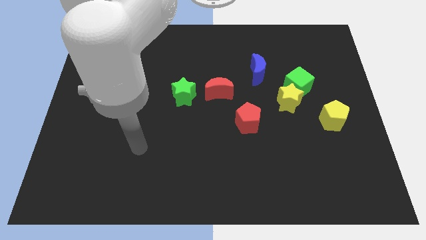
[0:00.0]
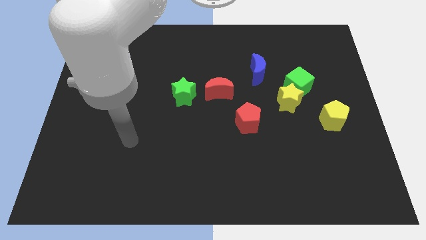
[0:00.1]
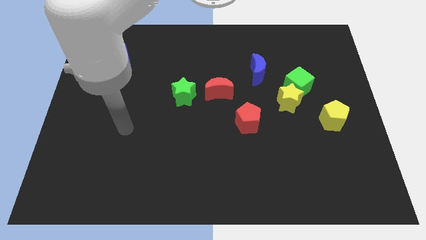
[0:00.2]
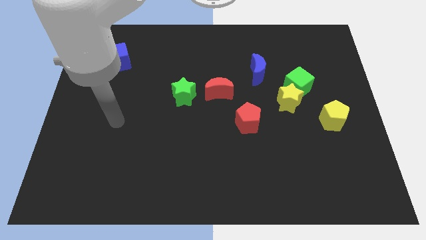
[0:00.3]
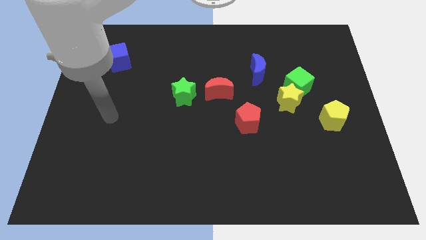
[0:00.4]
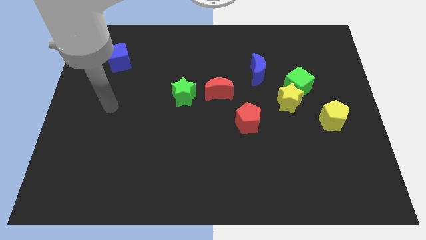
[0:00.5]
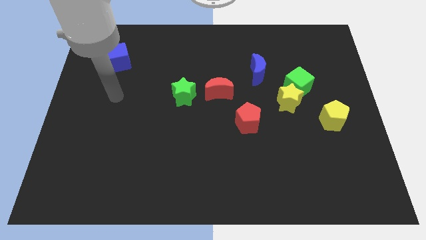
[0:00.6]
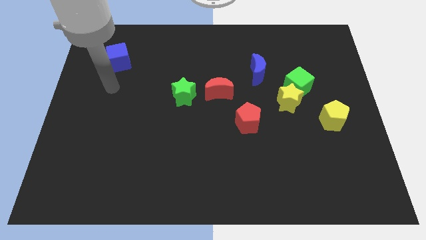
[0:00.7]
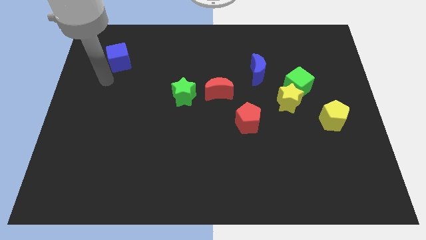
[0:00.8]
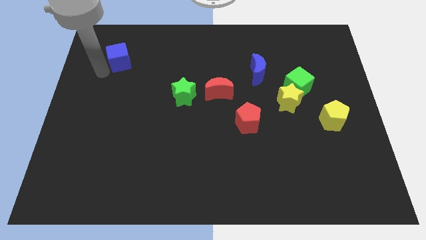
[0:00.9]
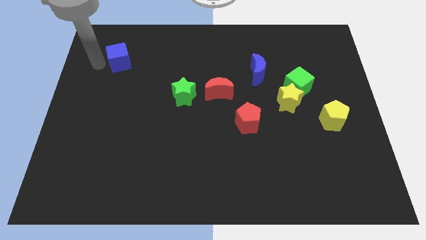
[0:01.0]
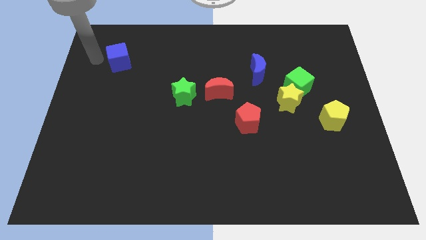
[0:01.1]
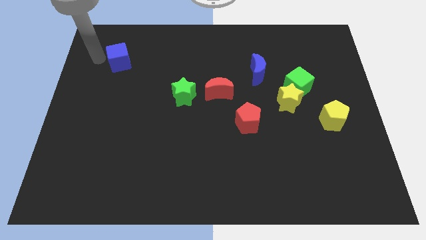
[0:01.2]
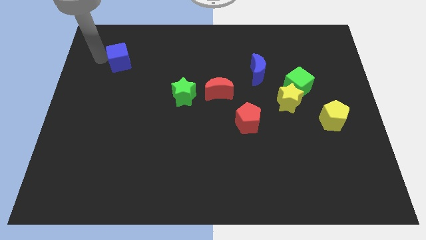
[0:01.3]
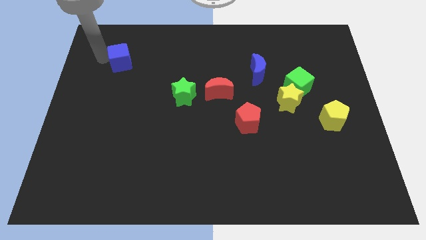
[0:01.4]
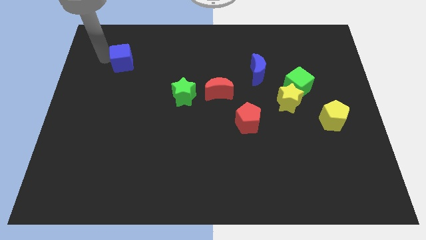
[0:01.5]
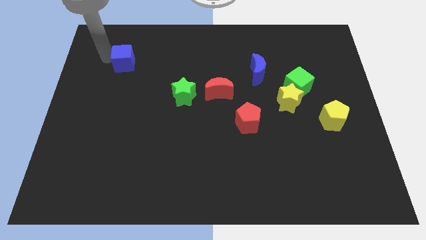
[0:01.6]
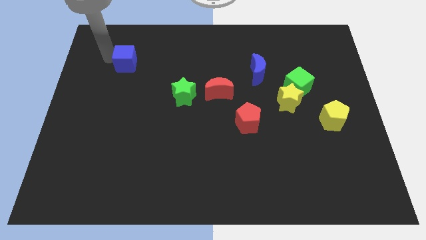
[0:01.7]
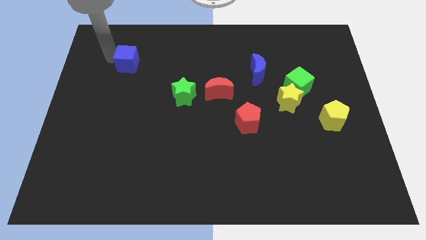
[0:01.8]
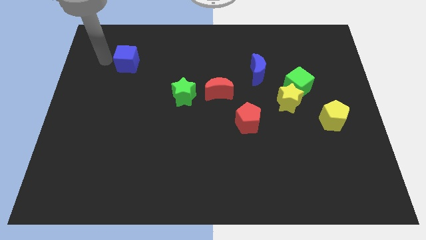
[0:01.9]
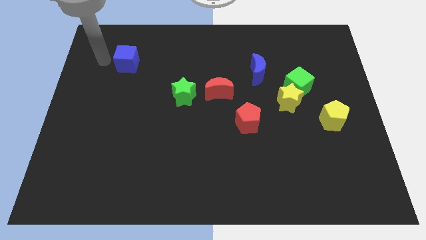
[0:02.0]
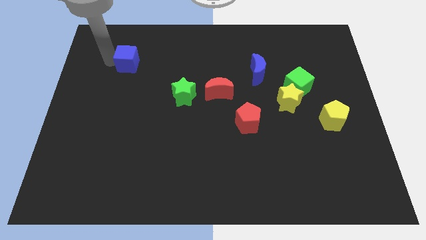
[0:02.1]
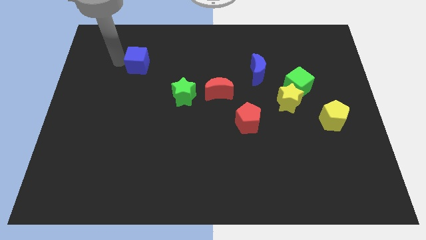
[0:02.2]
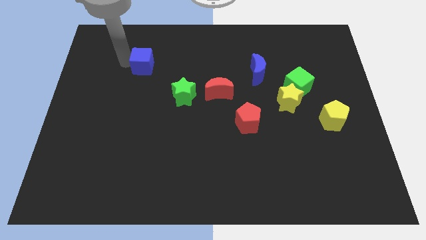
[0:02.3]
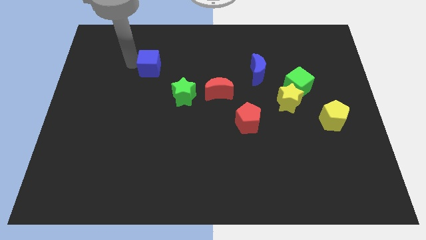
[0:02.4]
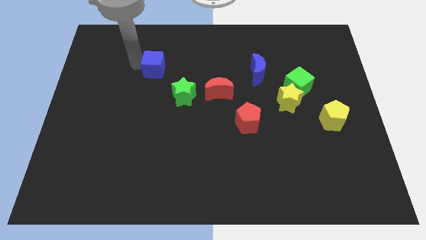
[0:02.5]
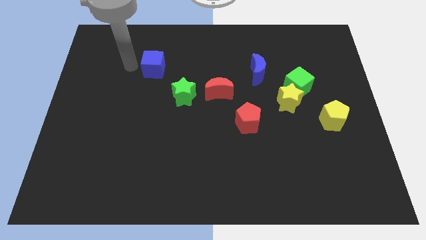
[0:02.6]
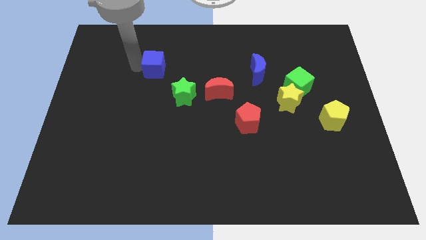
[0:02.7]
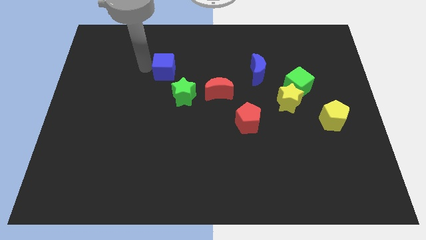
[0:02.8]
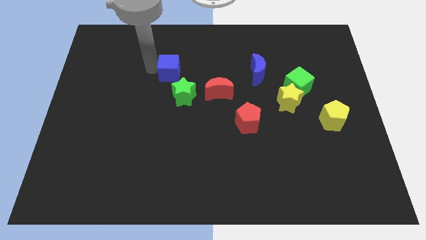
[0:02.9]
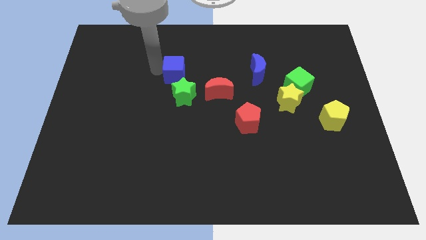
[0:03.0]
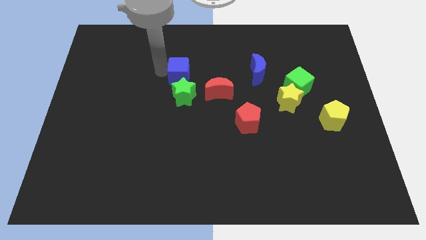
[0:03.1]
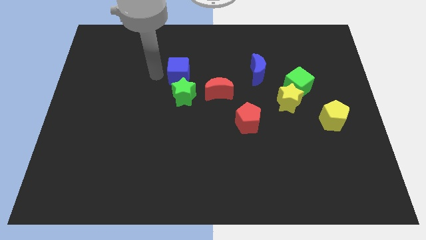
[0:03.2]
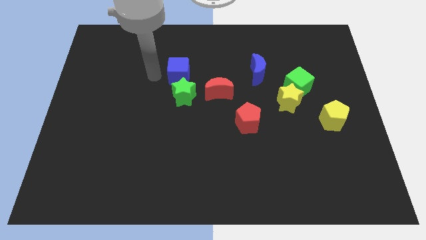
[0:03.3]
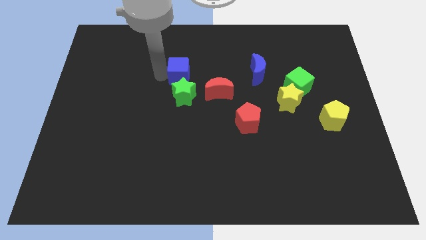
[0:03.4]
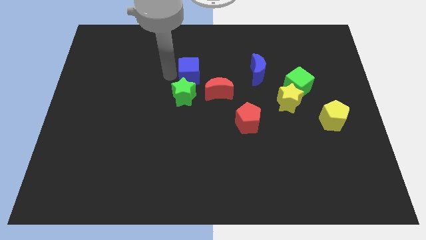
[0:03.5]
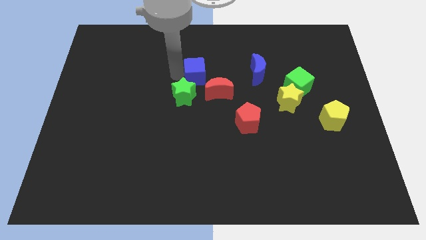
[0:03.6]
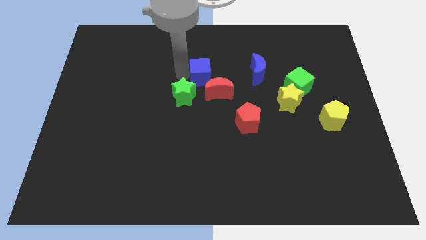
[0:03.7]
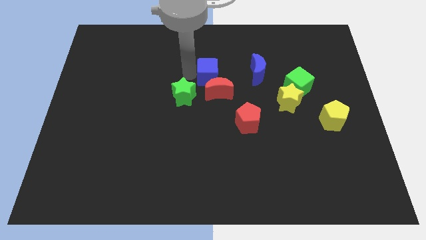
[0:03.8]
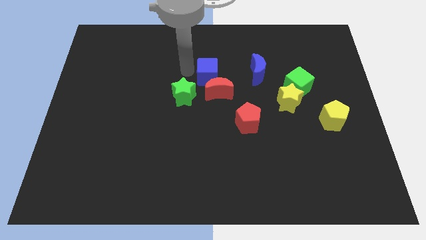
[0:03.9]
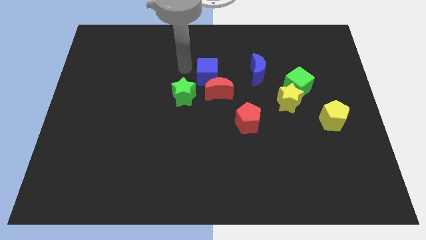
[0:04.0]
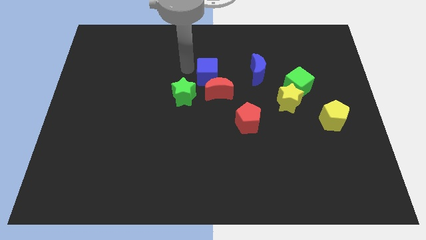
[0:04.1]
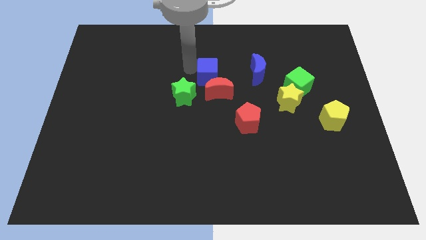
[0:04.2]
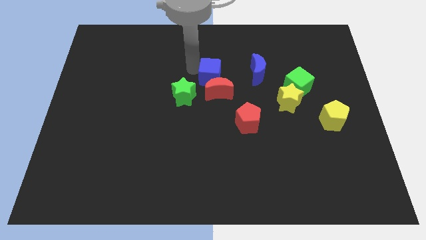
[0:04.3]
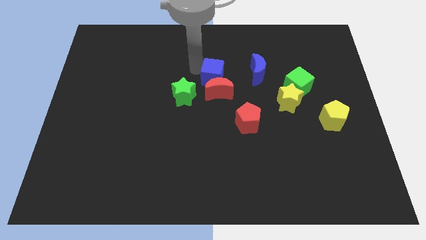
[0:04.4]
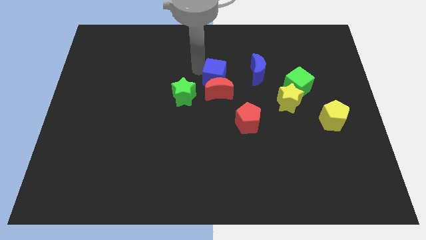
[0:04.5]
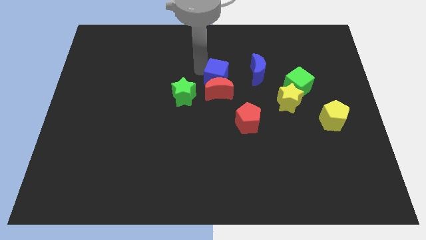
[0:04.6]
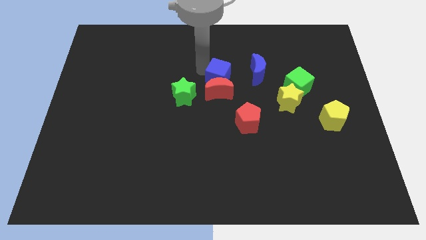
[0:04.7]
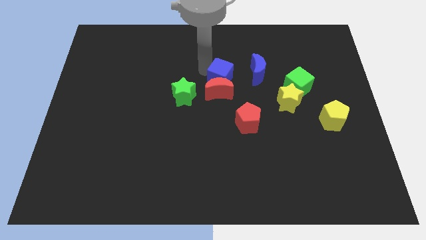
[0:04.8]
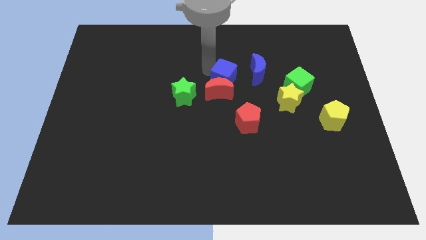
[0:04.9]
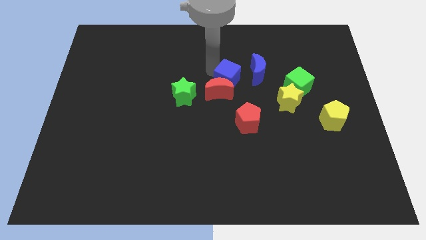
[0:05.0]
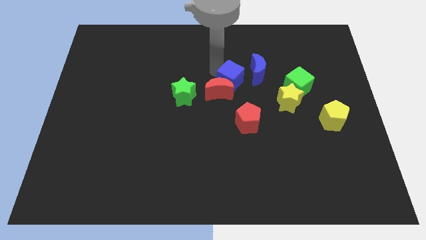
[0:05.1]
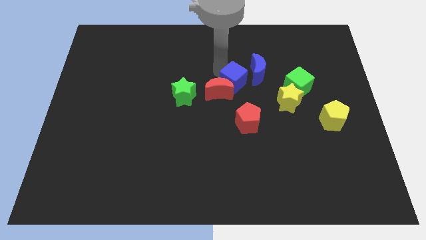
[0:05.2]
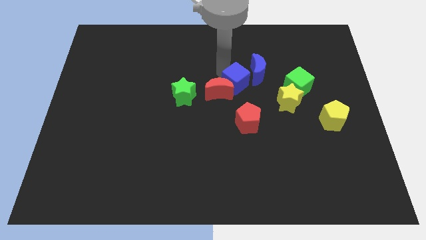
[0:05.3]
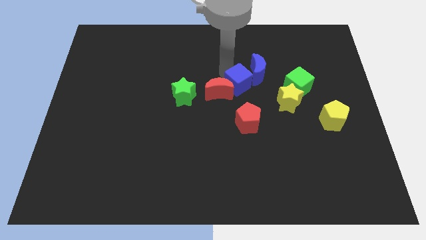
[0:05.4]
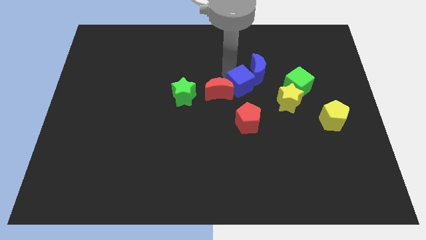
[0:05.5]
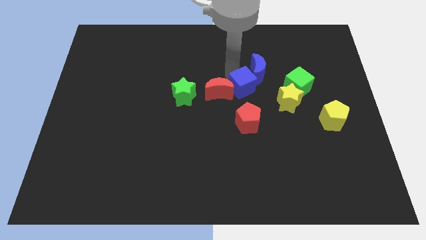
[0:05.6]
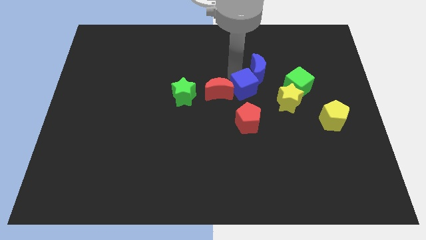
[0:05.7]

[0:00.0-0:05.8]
slide the blue cube left of the yellow star

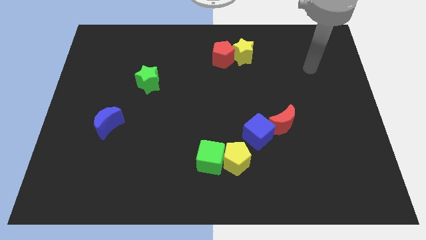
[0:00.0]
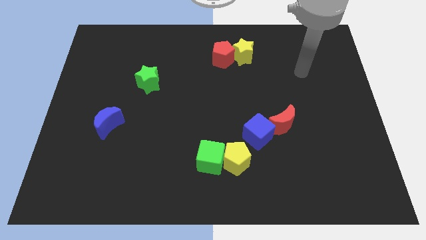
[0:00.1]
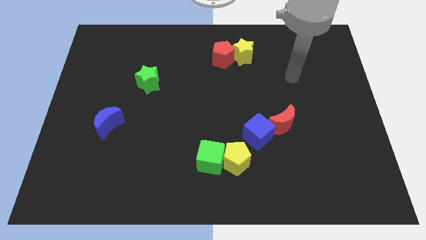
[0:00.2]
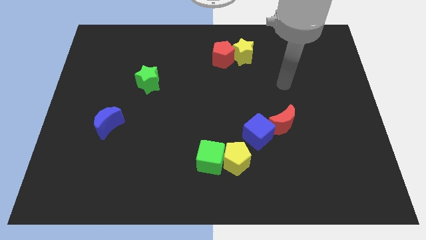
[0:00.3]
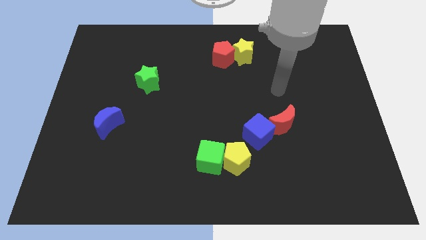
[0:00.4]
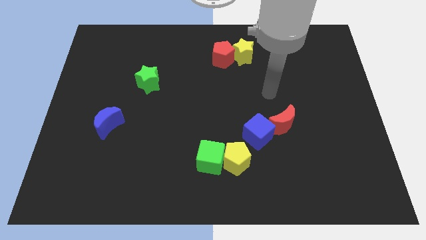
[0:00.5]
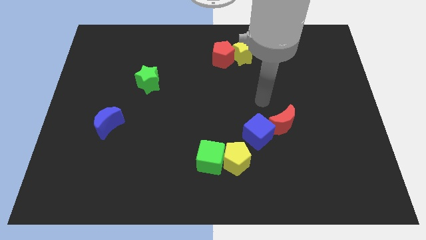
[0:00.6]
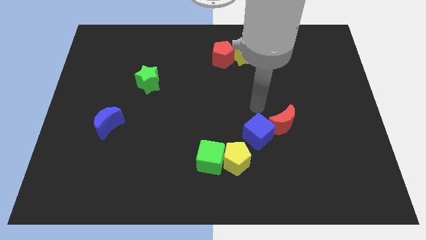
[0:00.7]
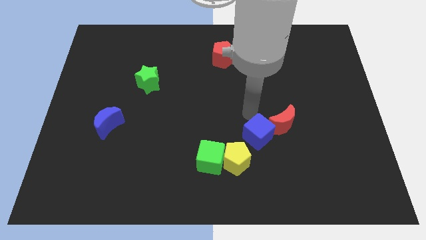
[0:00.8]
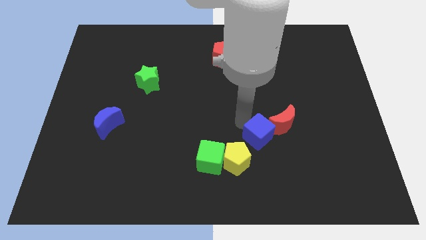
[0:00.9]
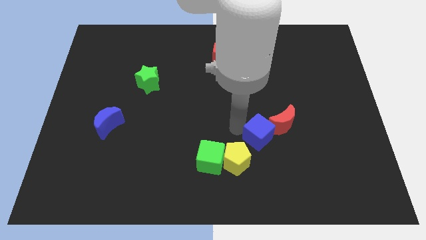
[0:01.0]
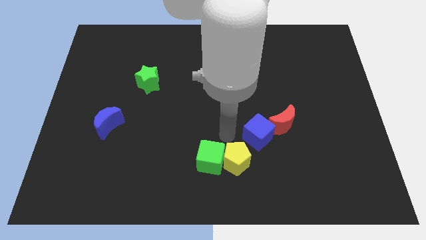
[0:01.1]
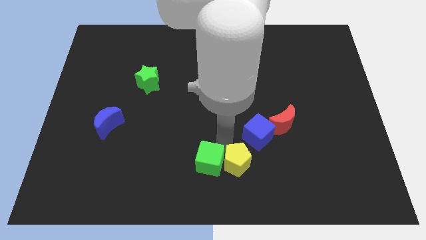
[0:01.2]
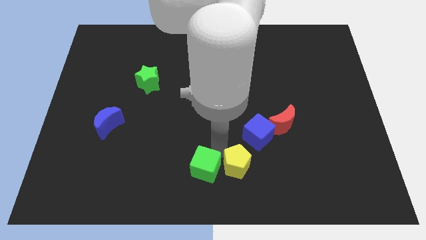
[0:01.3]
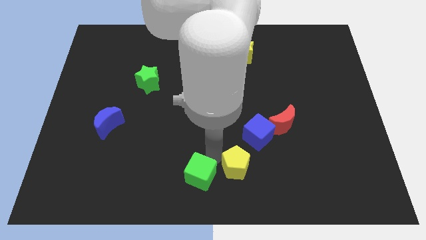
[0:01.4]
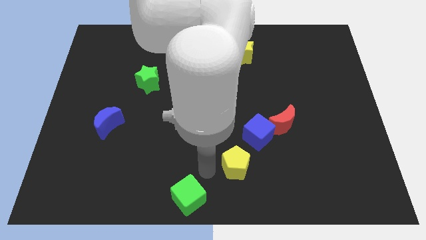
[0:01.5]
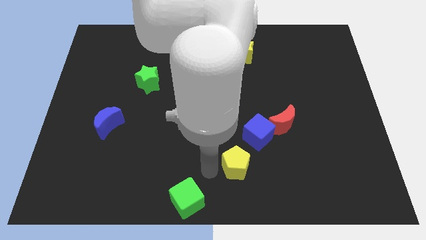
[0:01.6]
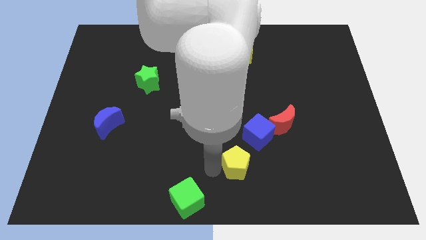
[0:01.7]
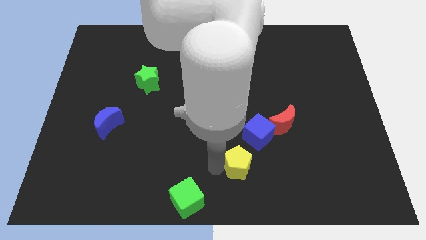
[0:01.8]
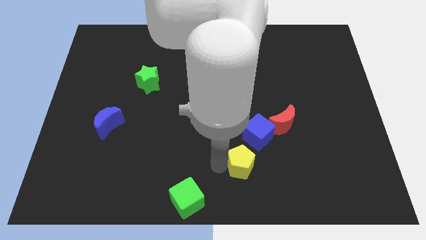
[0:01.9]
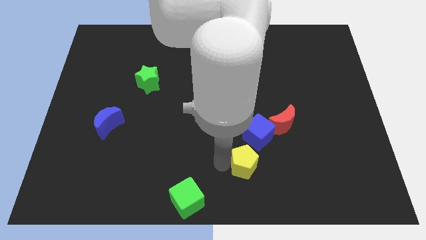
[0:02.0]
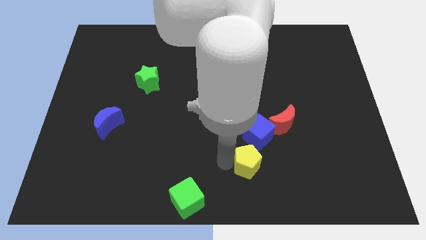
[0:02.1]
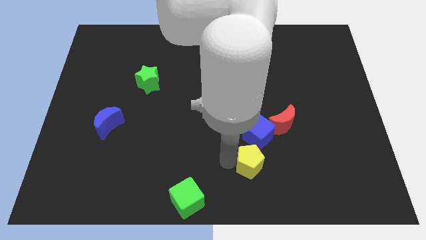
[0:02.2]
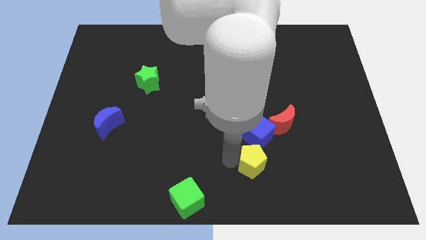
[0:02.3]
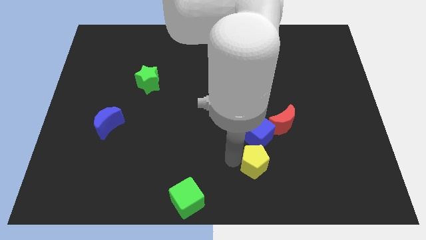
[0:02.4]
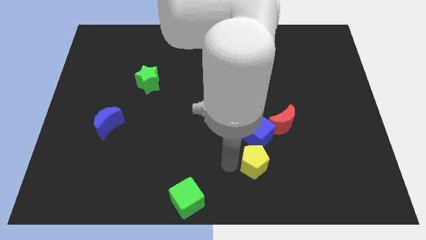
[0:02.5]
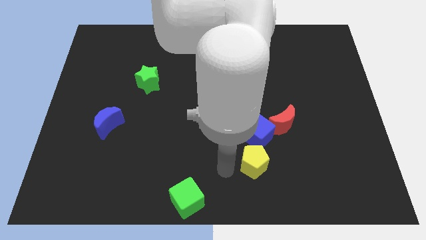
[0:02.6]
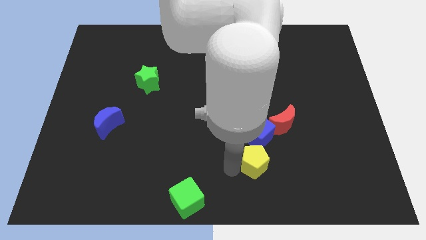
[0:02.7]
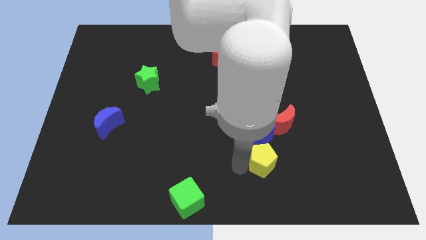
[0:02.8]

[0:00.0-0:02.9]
push the yellow pentagon to the bottom right side of the blue cube
